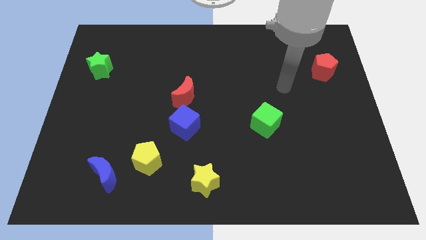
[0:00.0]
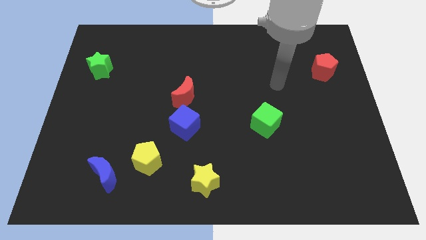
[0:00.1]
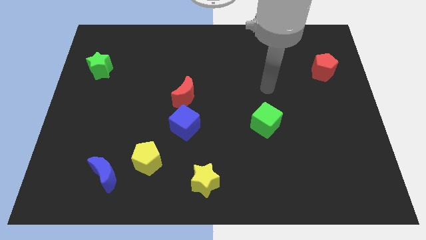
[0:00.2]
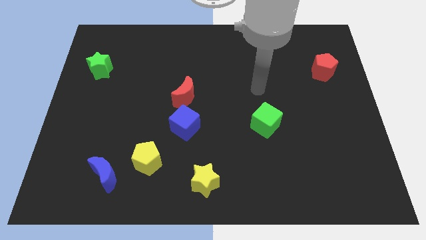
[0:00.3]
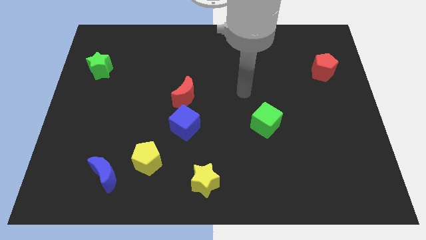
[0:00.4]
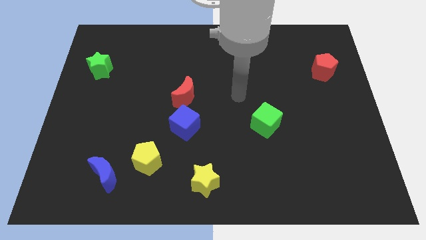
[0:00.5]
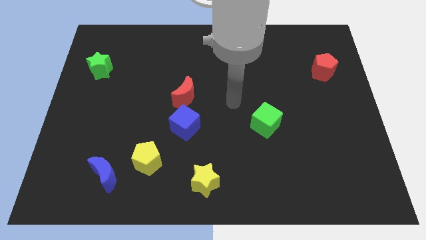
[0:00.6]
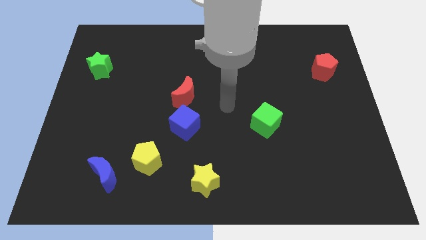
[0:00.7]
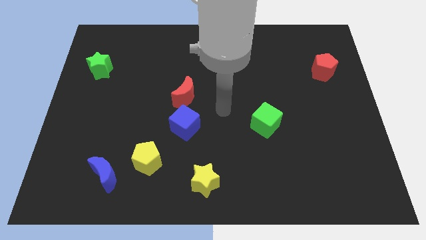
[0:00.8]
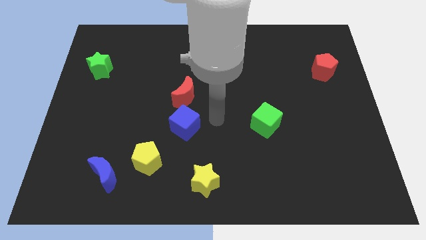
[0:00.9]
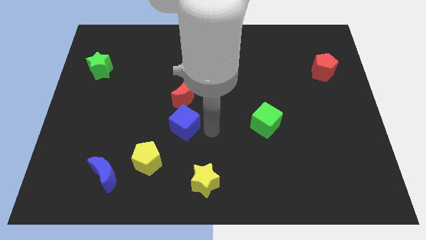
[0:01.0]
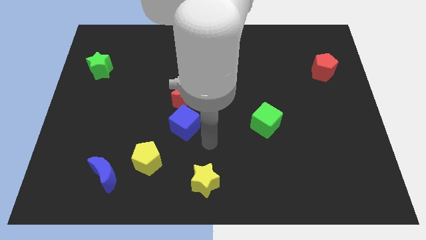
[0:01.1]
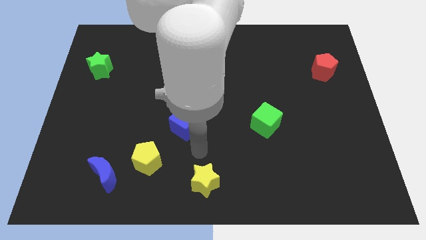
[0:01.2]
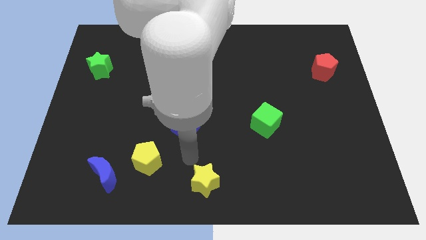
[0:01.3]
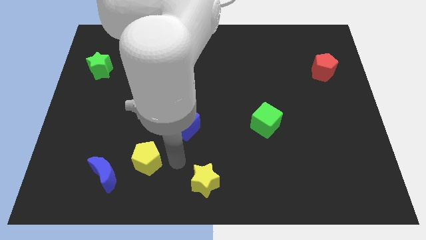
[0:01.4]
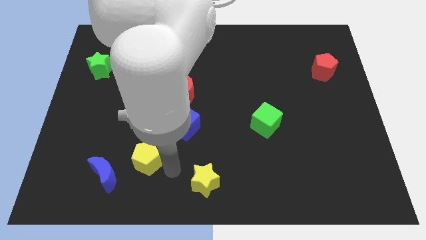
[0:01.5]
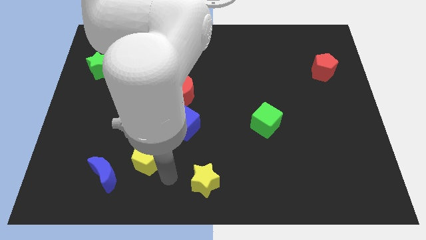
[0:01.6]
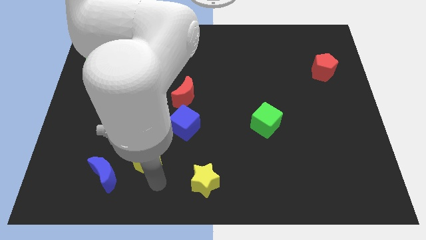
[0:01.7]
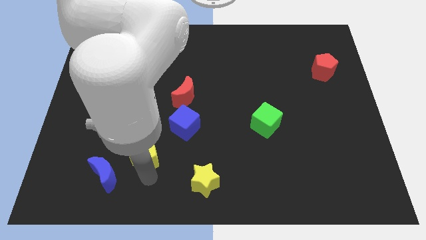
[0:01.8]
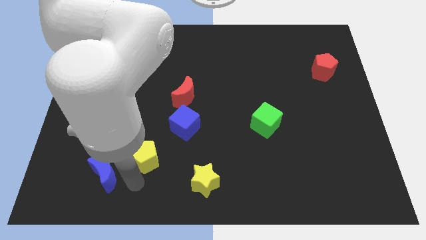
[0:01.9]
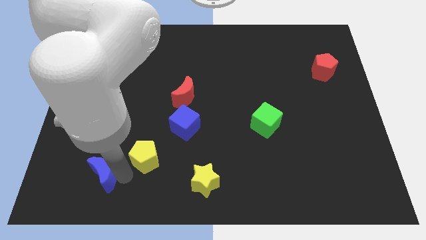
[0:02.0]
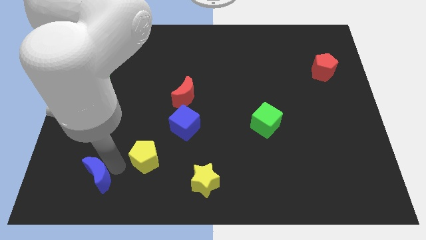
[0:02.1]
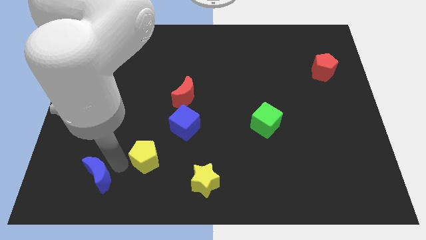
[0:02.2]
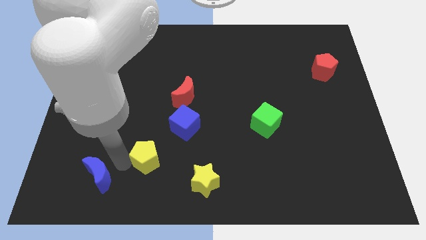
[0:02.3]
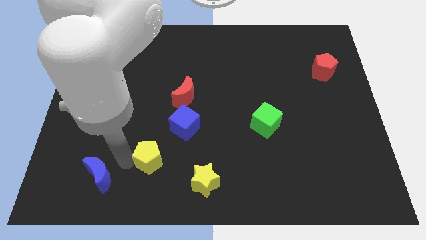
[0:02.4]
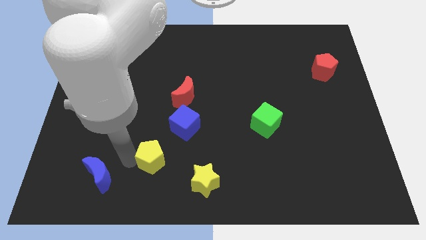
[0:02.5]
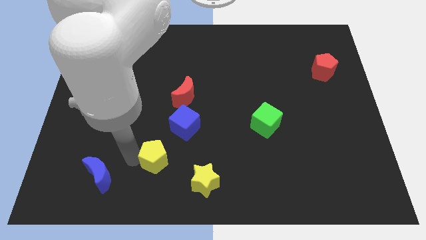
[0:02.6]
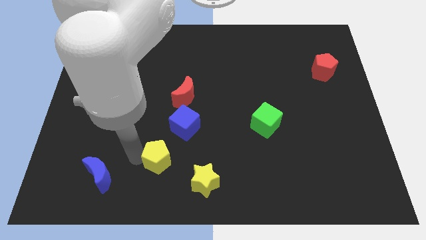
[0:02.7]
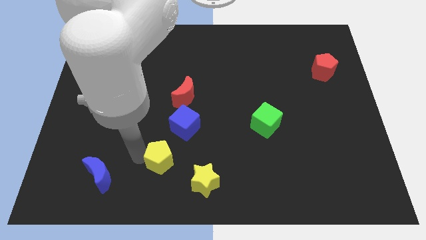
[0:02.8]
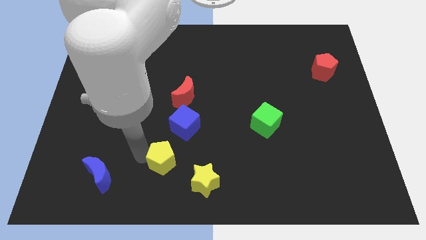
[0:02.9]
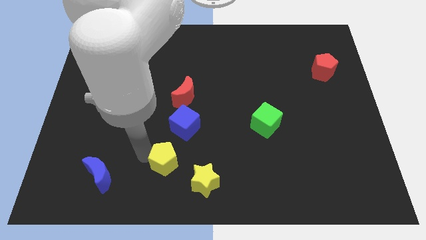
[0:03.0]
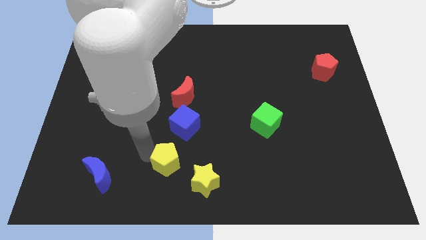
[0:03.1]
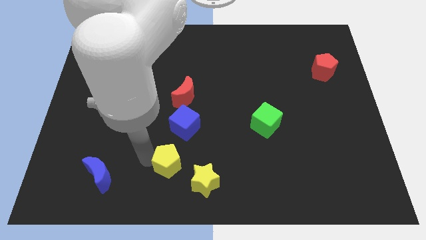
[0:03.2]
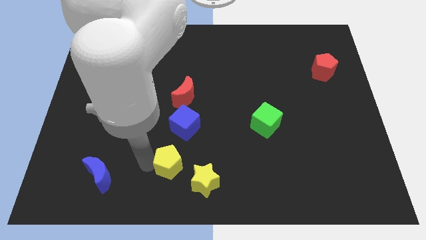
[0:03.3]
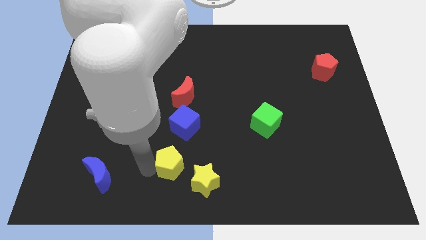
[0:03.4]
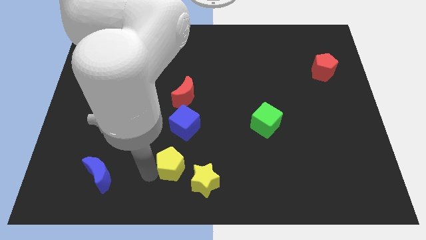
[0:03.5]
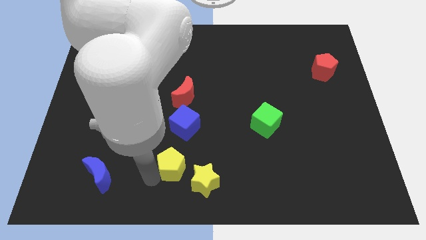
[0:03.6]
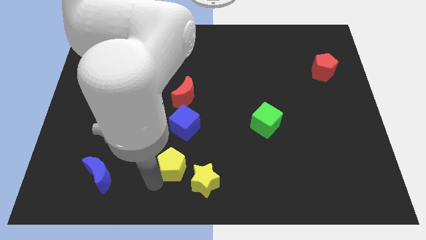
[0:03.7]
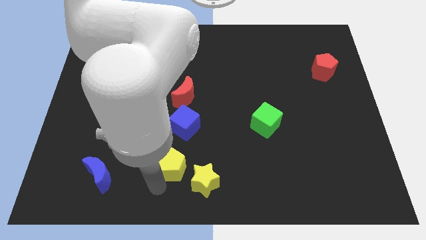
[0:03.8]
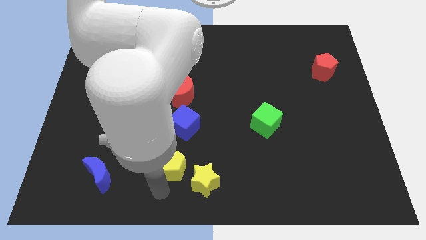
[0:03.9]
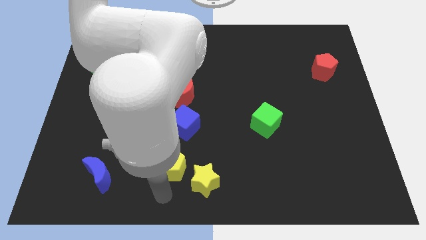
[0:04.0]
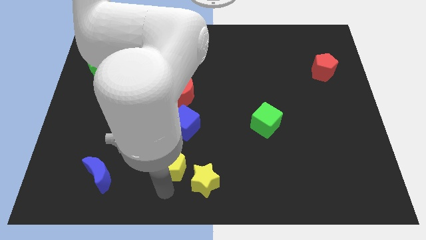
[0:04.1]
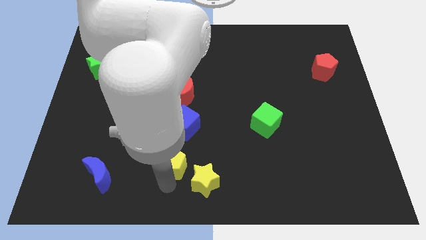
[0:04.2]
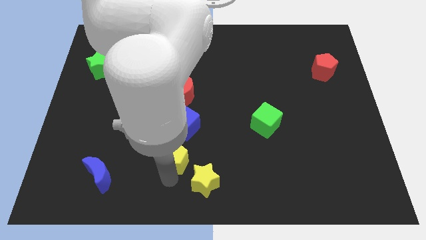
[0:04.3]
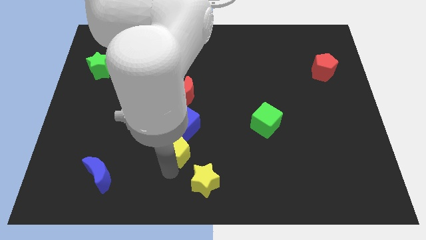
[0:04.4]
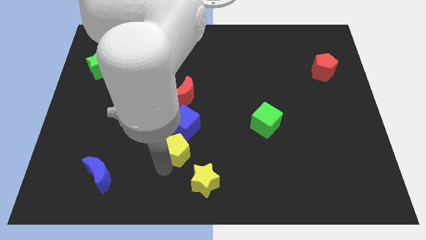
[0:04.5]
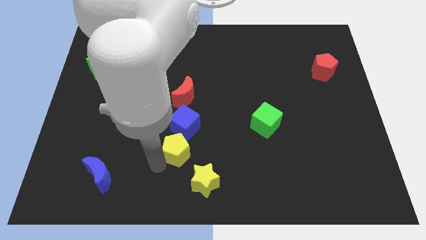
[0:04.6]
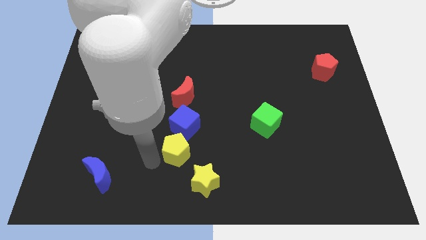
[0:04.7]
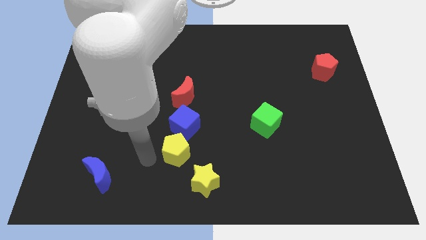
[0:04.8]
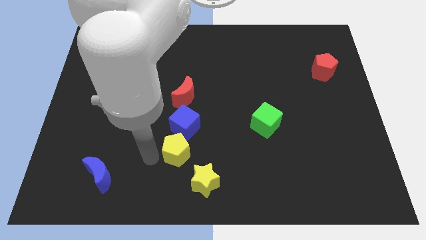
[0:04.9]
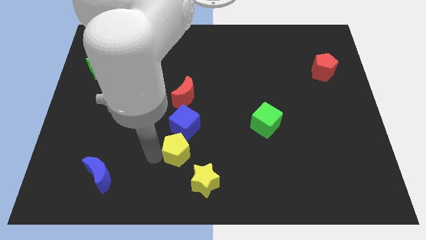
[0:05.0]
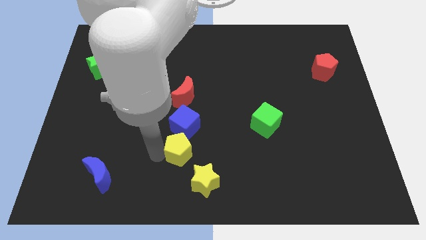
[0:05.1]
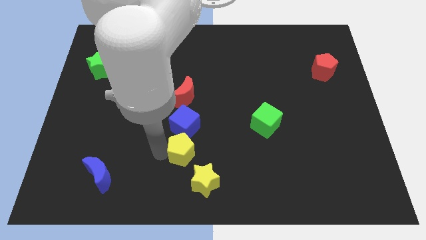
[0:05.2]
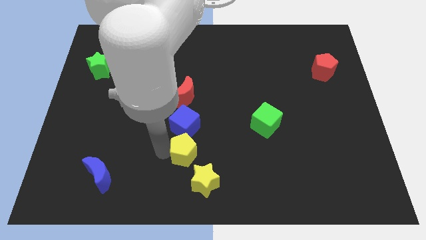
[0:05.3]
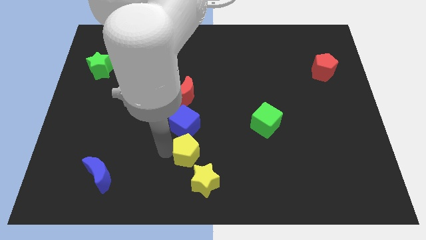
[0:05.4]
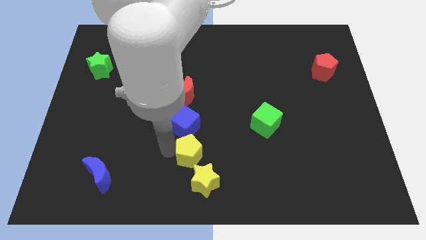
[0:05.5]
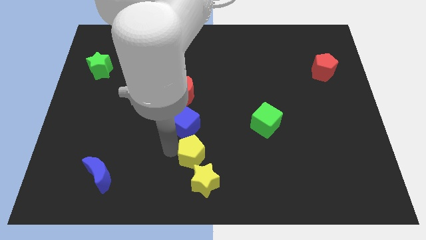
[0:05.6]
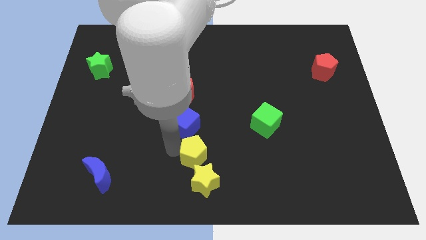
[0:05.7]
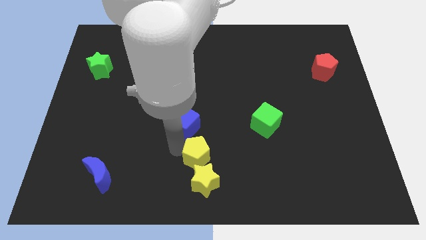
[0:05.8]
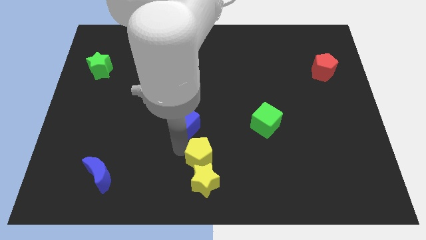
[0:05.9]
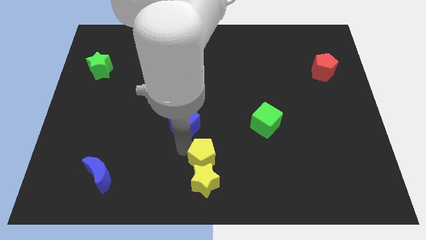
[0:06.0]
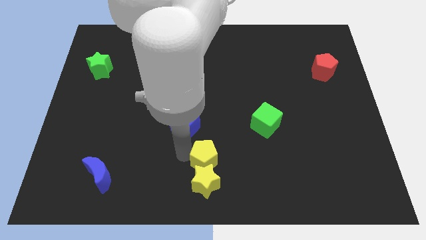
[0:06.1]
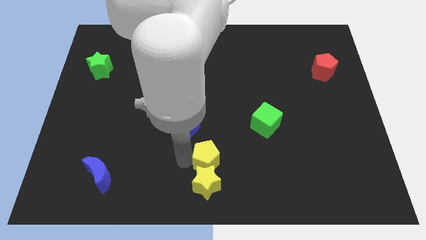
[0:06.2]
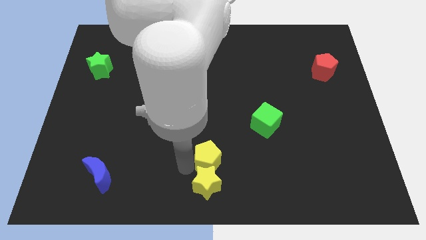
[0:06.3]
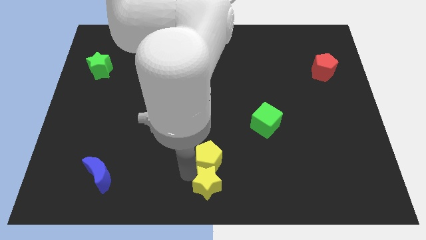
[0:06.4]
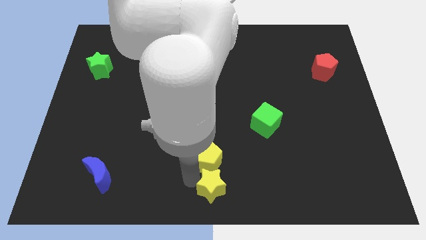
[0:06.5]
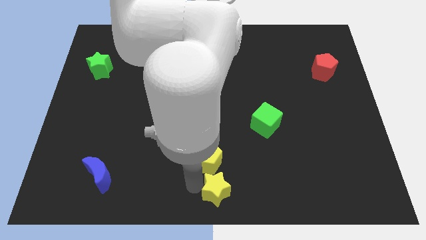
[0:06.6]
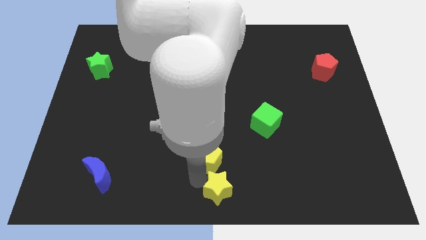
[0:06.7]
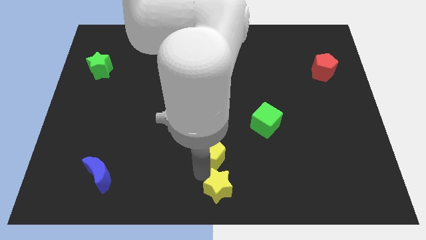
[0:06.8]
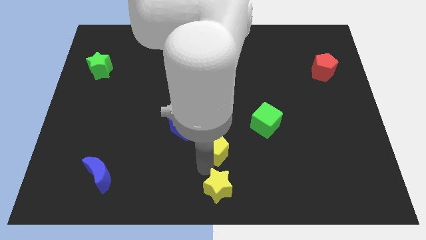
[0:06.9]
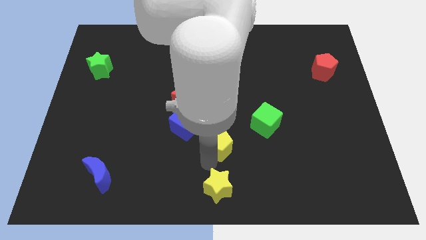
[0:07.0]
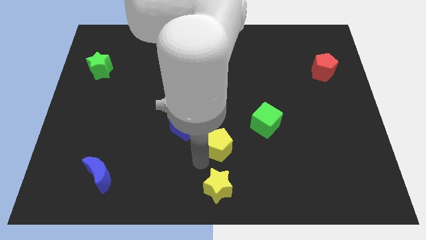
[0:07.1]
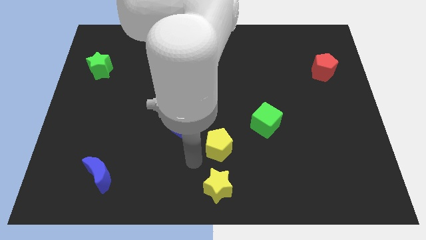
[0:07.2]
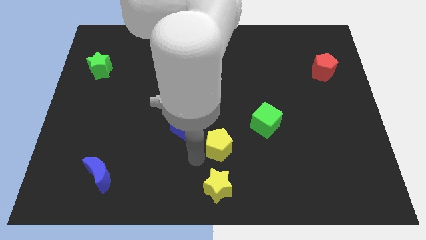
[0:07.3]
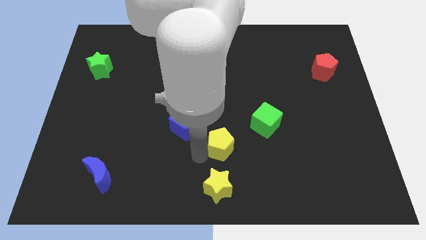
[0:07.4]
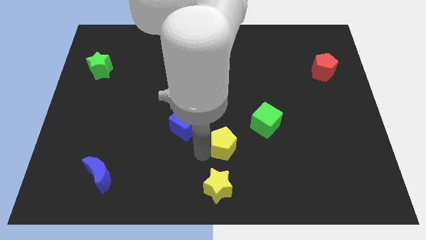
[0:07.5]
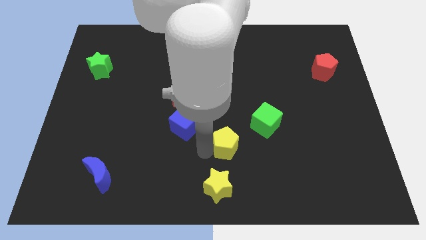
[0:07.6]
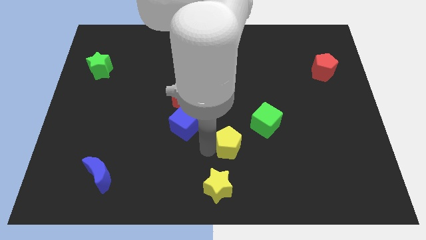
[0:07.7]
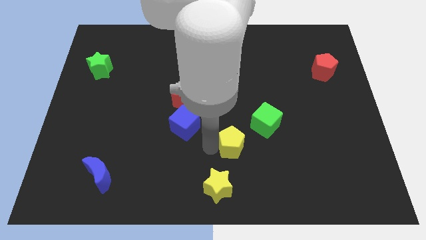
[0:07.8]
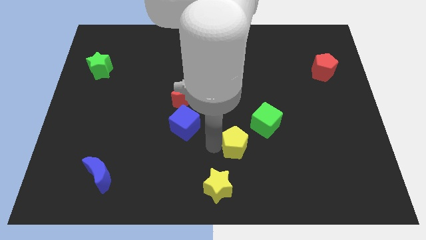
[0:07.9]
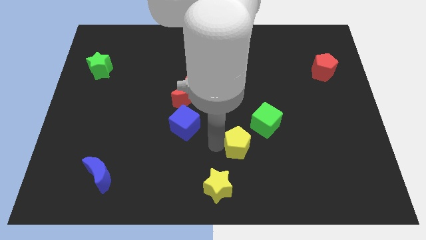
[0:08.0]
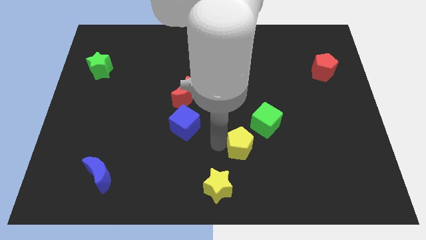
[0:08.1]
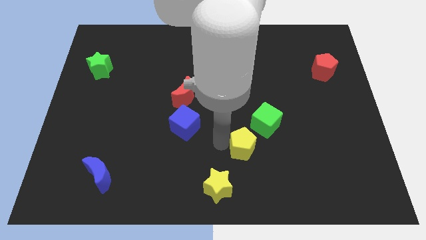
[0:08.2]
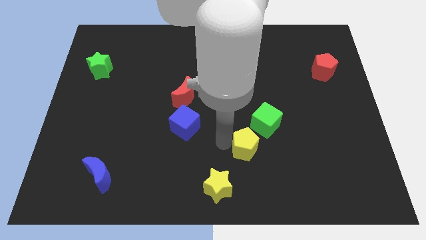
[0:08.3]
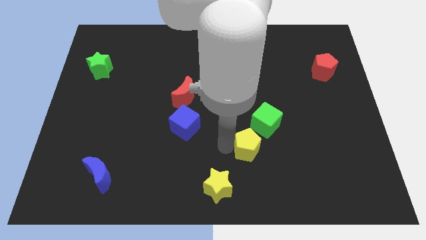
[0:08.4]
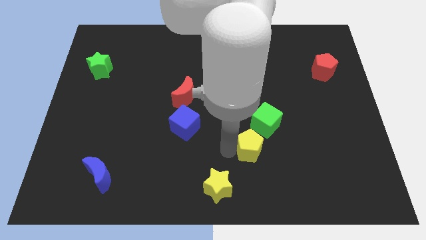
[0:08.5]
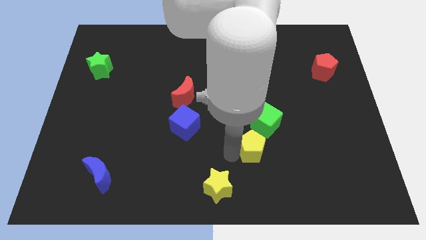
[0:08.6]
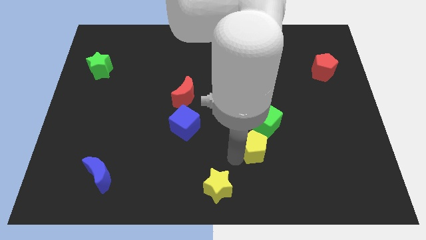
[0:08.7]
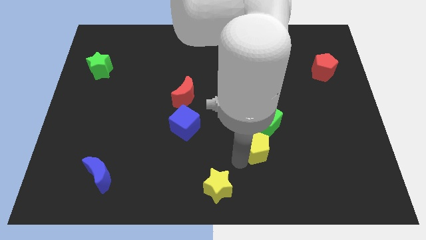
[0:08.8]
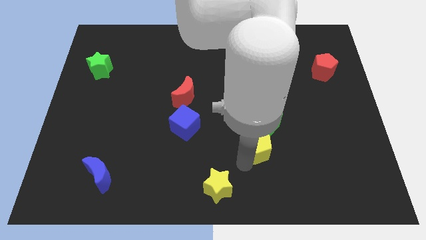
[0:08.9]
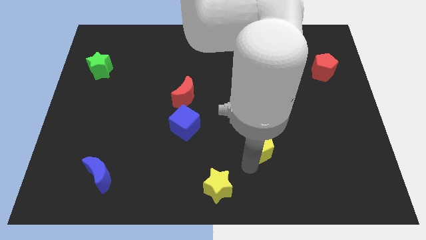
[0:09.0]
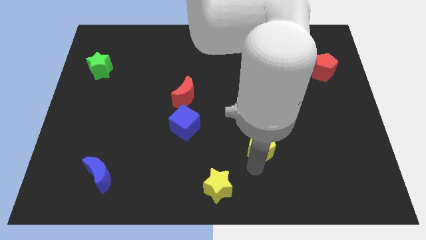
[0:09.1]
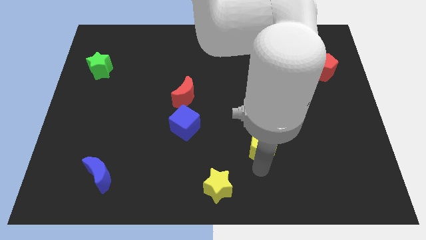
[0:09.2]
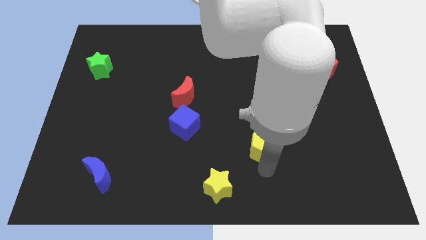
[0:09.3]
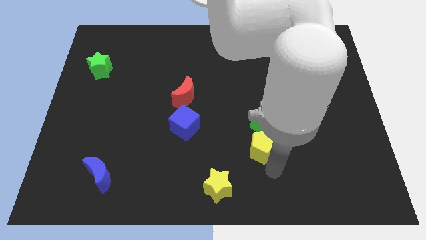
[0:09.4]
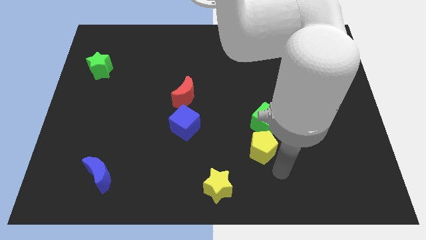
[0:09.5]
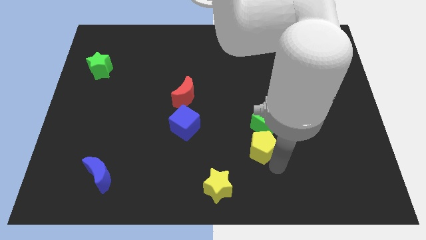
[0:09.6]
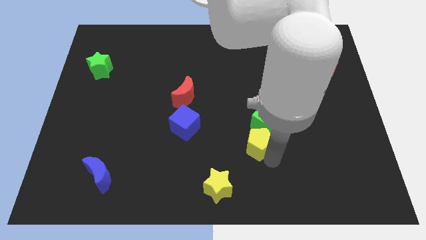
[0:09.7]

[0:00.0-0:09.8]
put the yellow pentagon towards the green cube
